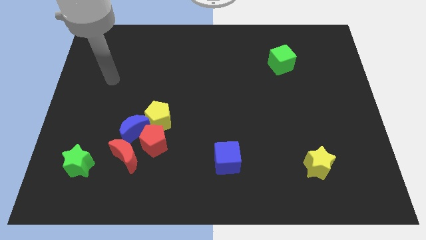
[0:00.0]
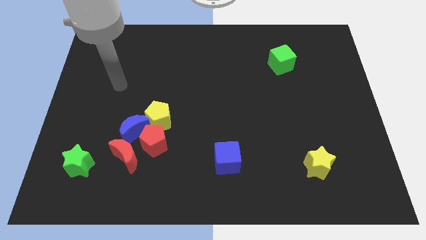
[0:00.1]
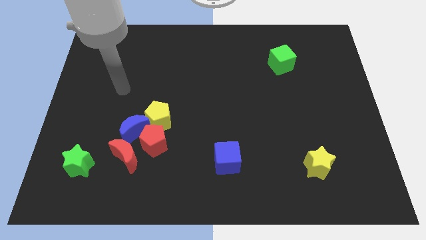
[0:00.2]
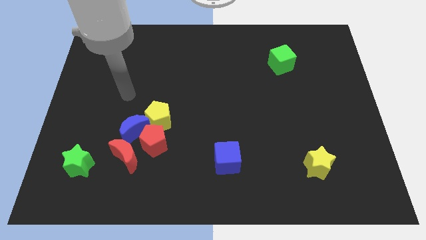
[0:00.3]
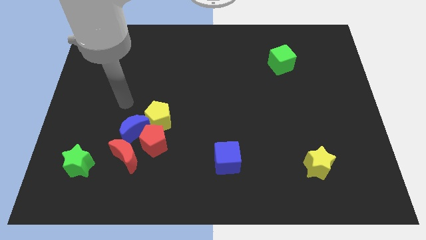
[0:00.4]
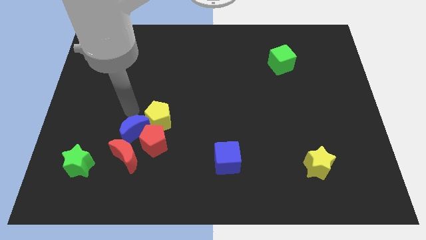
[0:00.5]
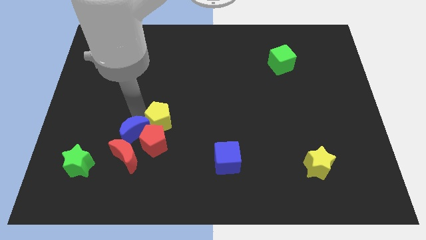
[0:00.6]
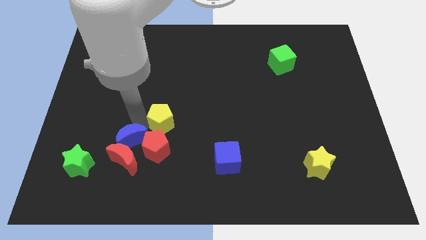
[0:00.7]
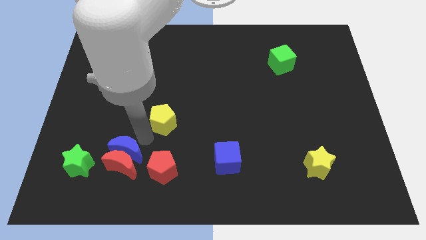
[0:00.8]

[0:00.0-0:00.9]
pull the yellow pentagon apart from the blue moon and red pentagon

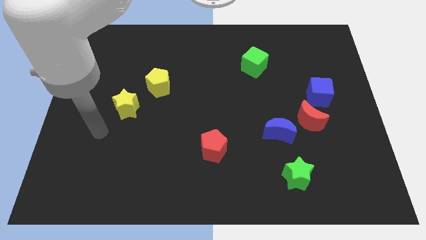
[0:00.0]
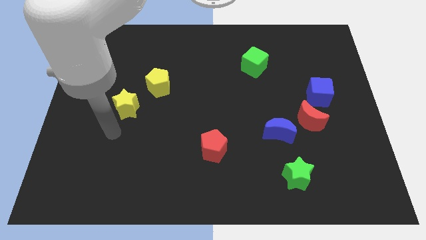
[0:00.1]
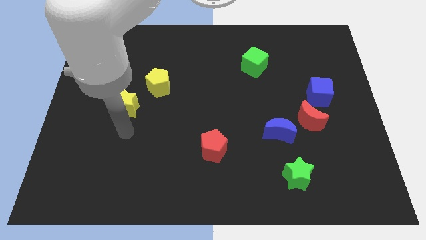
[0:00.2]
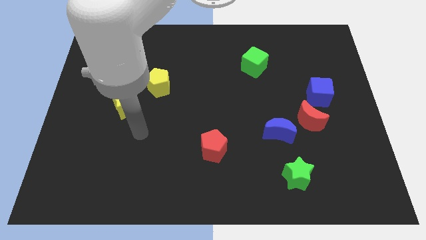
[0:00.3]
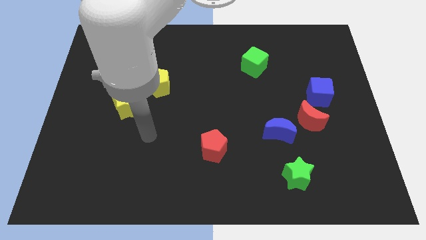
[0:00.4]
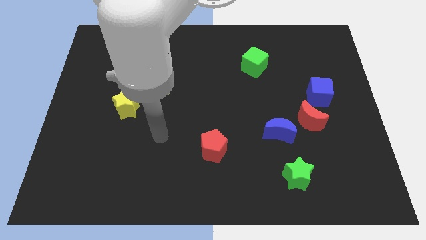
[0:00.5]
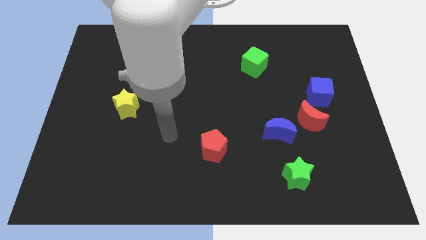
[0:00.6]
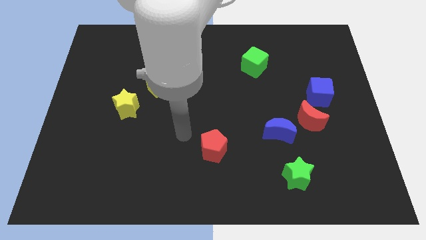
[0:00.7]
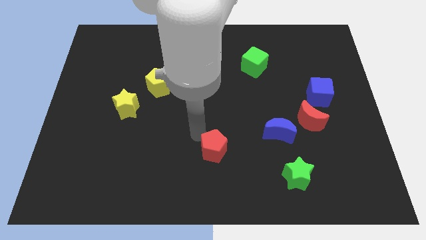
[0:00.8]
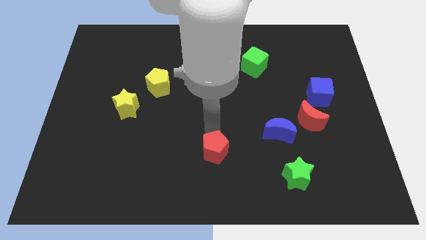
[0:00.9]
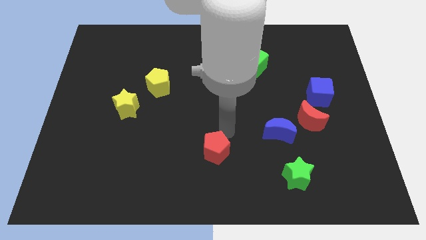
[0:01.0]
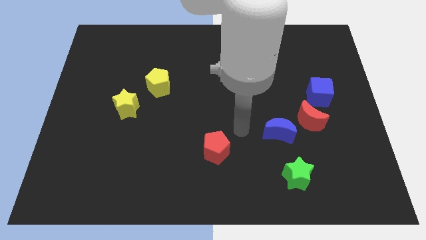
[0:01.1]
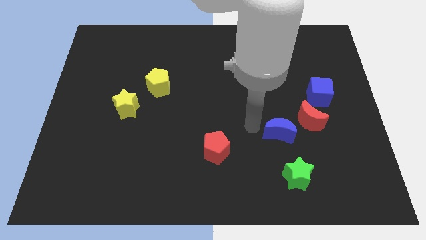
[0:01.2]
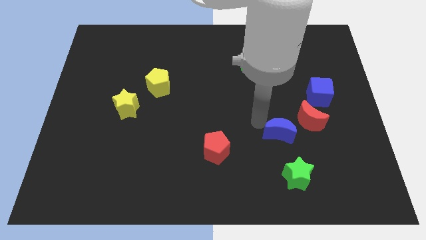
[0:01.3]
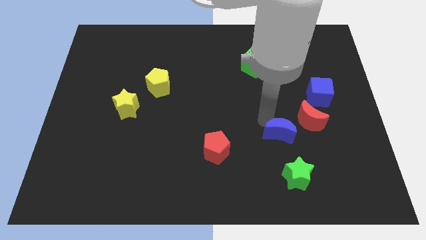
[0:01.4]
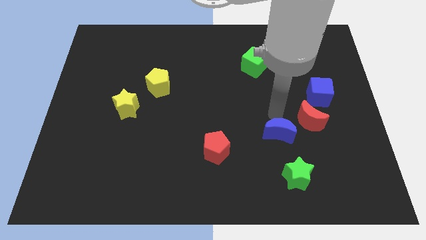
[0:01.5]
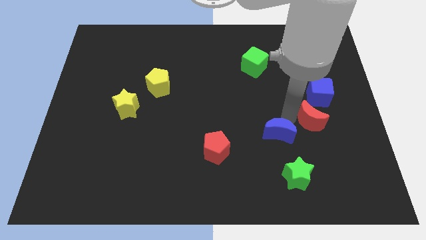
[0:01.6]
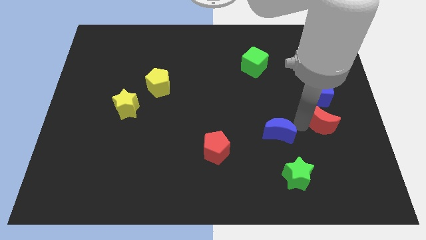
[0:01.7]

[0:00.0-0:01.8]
separate the blue moon from the red moon

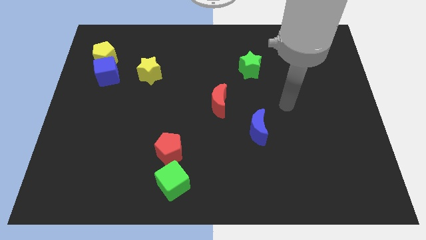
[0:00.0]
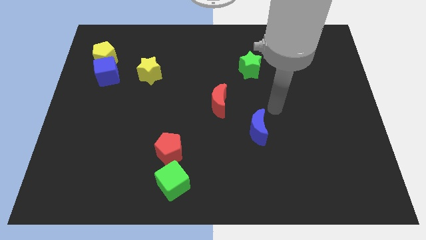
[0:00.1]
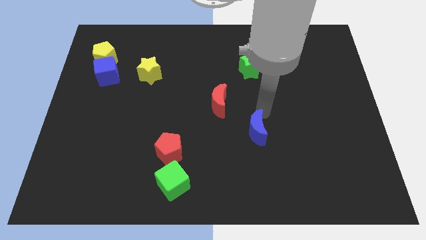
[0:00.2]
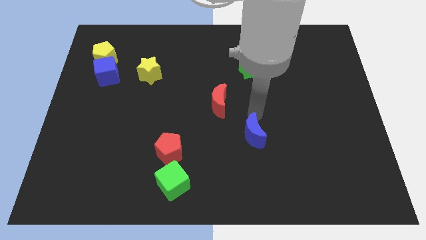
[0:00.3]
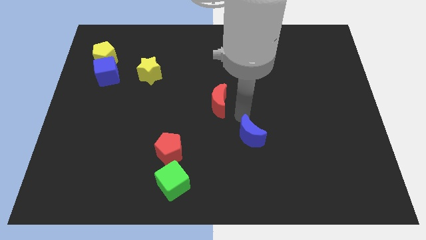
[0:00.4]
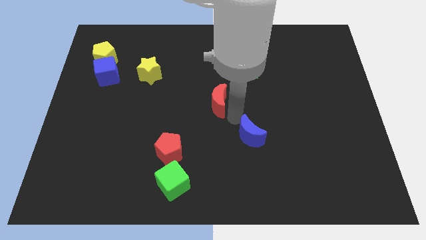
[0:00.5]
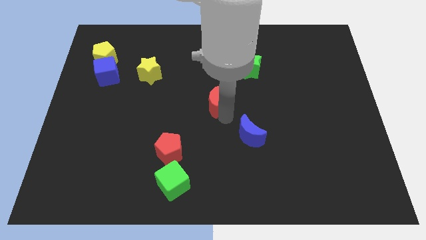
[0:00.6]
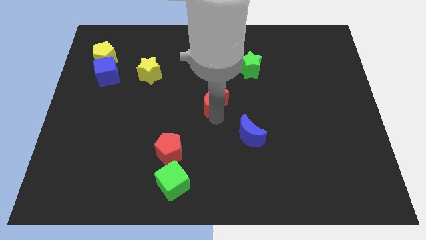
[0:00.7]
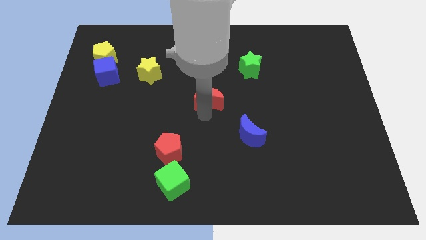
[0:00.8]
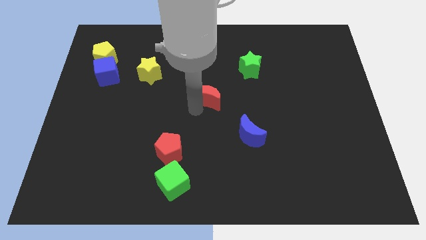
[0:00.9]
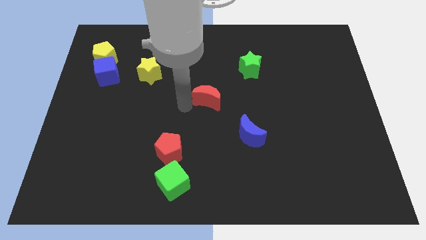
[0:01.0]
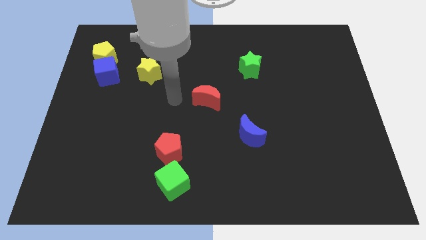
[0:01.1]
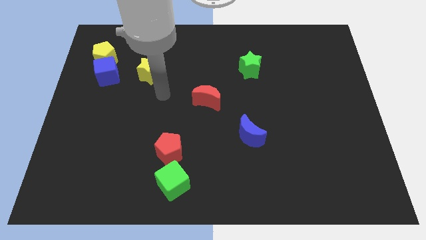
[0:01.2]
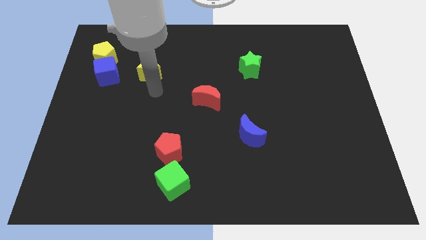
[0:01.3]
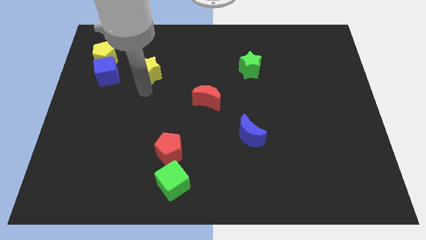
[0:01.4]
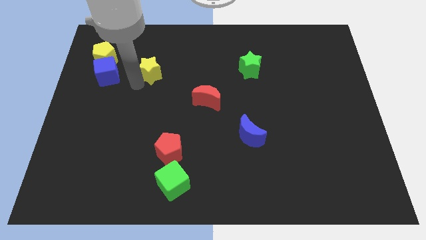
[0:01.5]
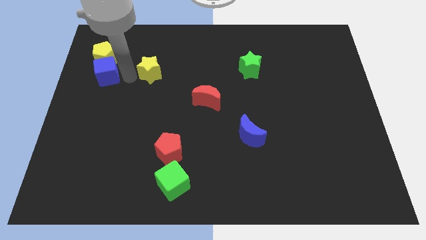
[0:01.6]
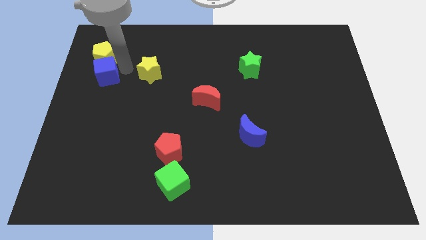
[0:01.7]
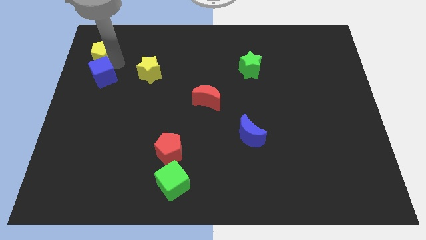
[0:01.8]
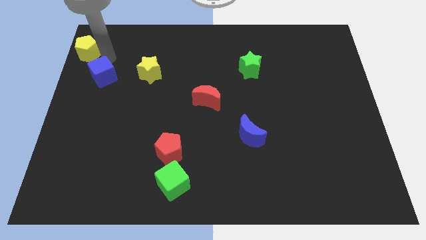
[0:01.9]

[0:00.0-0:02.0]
separate the blue cube from the yellow pentagon

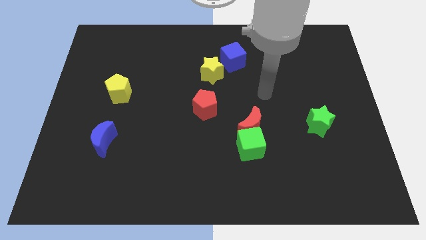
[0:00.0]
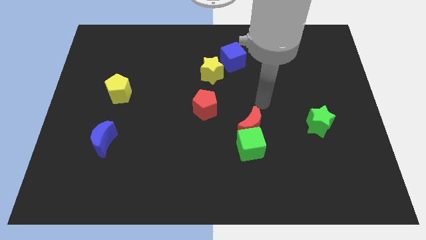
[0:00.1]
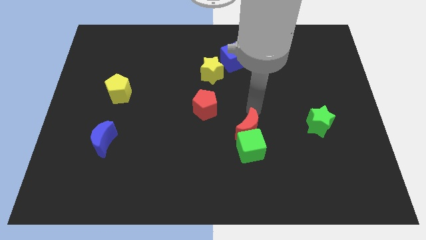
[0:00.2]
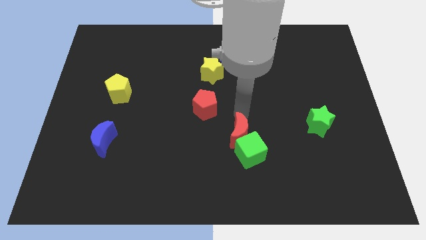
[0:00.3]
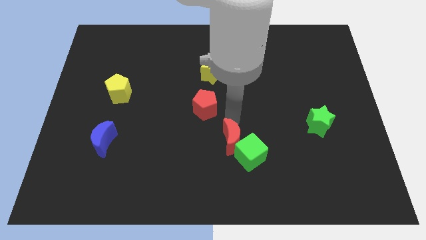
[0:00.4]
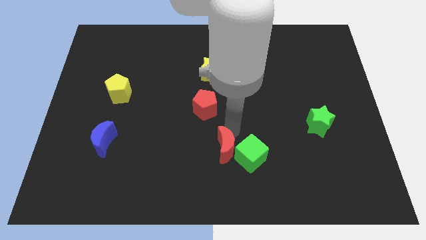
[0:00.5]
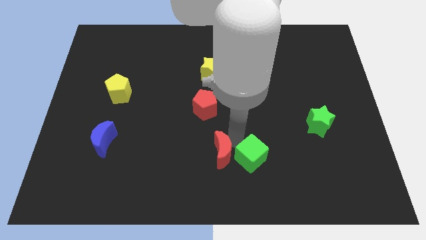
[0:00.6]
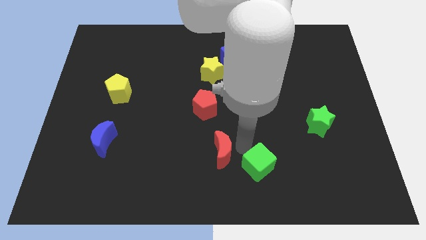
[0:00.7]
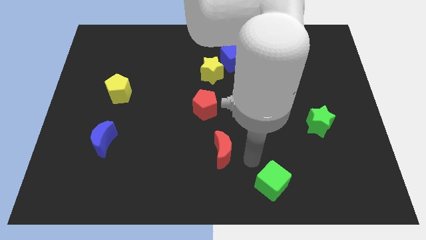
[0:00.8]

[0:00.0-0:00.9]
pull the red moon apart from the green cube

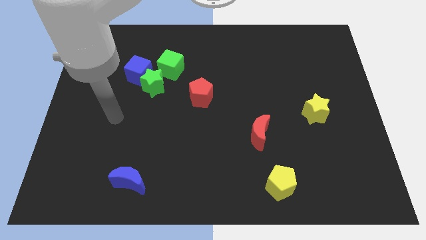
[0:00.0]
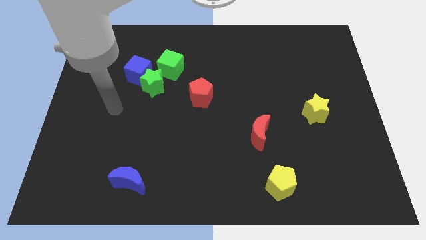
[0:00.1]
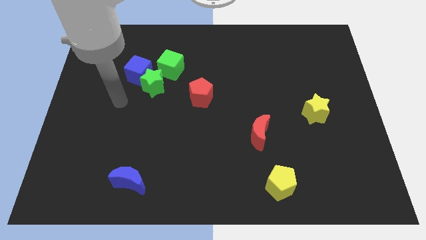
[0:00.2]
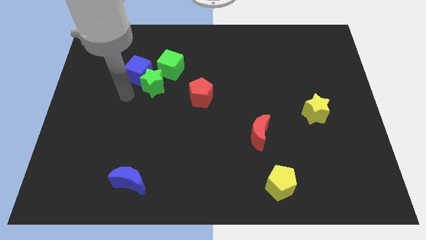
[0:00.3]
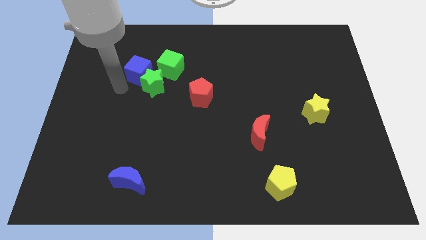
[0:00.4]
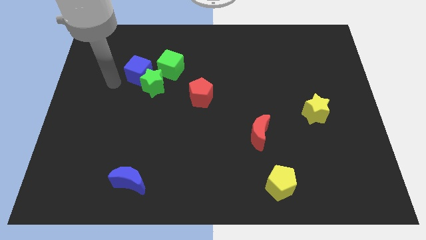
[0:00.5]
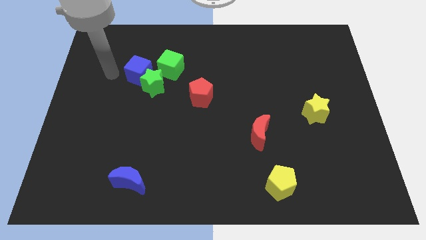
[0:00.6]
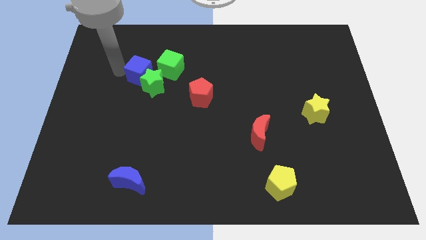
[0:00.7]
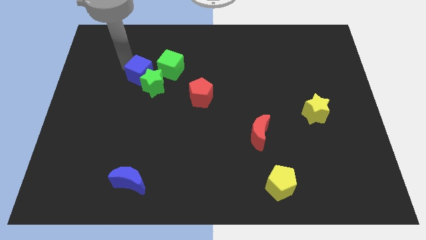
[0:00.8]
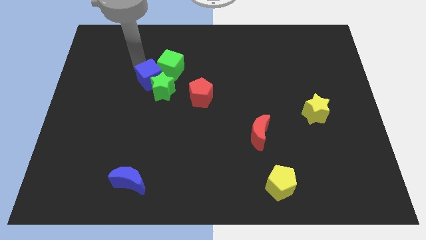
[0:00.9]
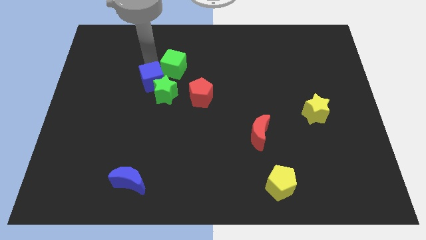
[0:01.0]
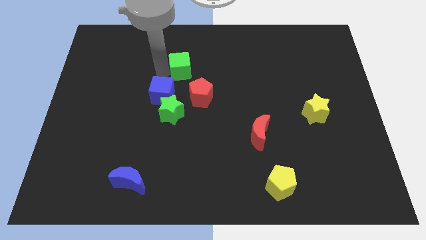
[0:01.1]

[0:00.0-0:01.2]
move the green star away from the blue cube and green cube

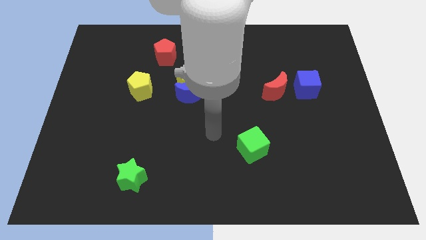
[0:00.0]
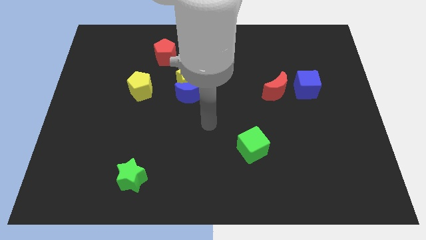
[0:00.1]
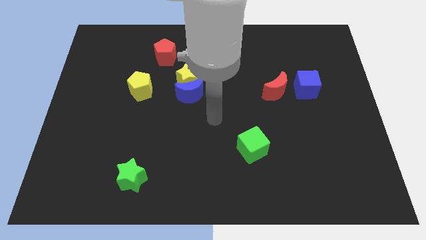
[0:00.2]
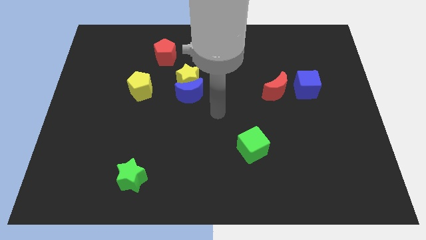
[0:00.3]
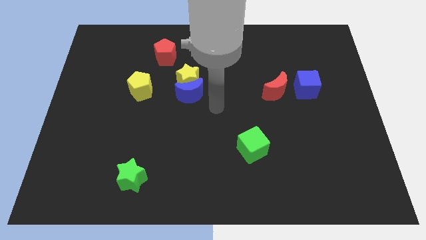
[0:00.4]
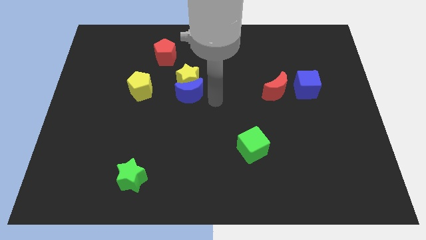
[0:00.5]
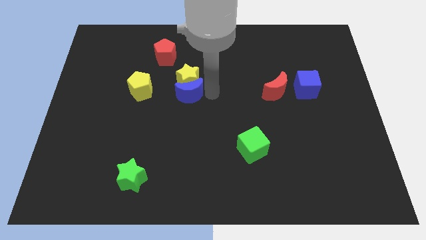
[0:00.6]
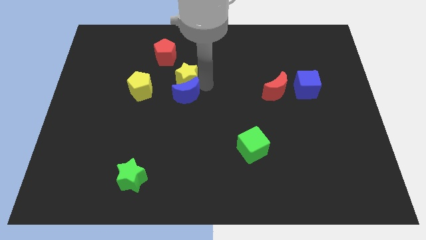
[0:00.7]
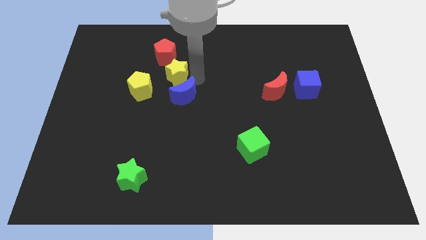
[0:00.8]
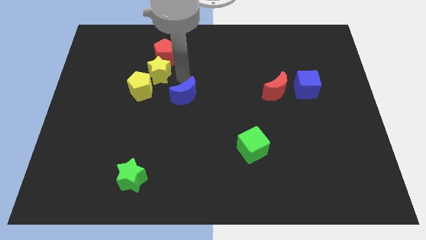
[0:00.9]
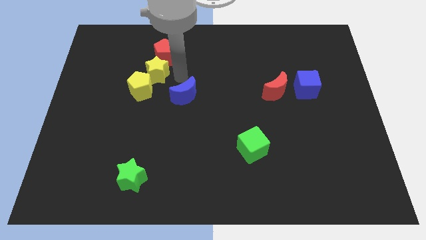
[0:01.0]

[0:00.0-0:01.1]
pull the blue moon apart from the yellow star

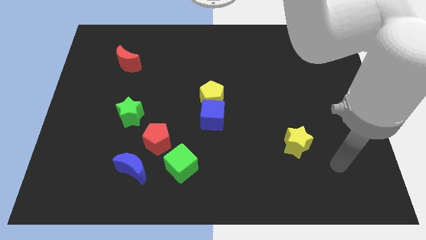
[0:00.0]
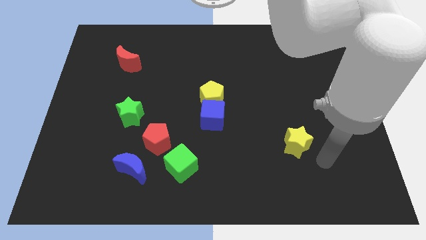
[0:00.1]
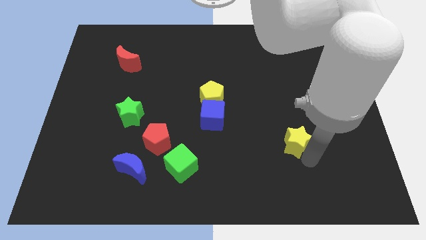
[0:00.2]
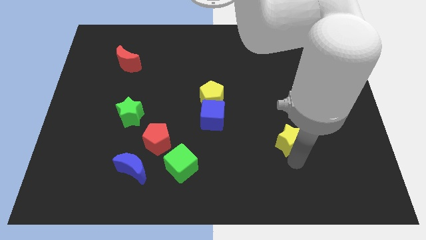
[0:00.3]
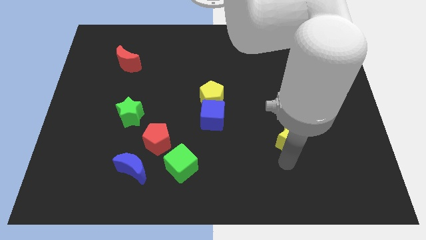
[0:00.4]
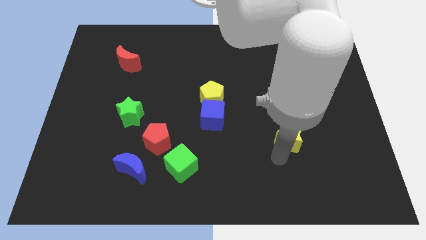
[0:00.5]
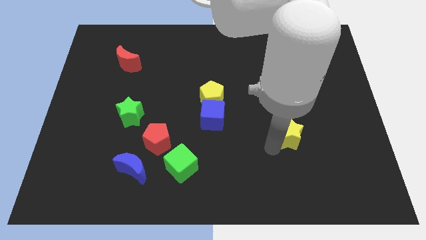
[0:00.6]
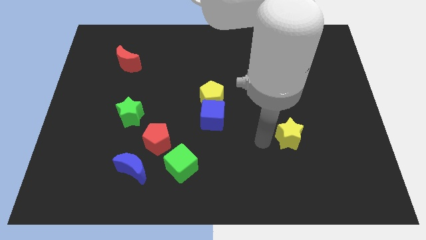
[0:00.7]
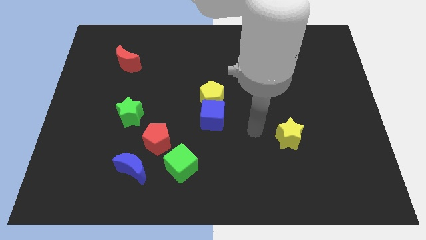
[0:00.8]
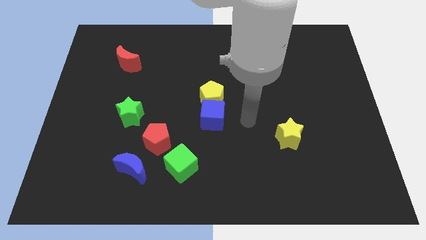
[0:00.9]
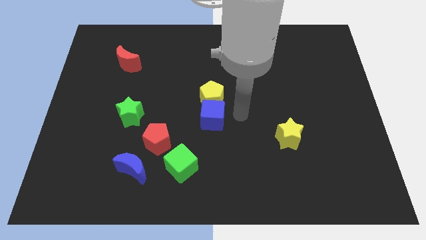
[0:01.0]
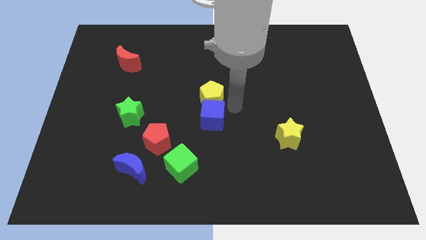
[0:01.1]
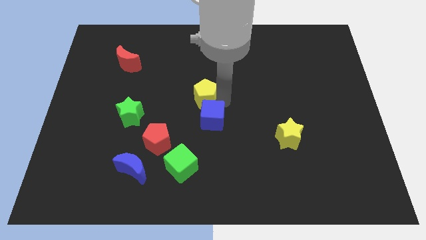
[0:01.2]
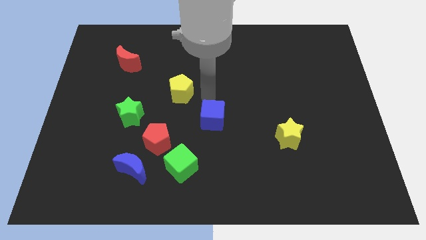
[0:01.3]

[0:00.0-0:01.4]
pull the blue cube apart from the yellow pentagon
